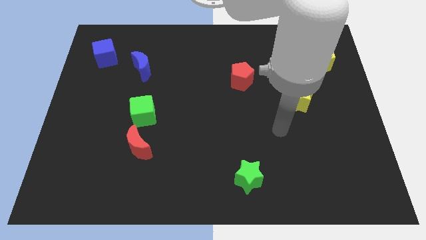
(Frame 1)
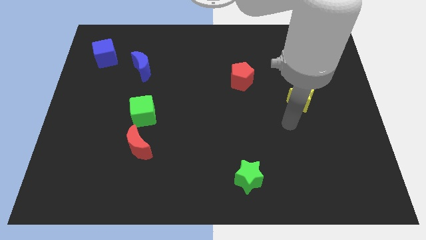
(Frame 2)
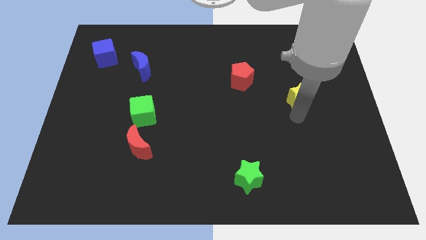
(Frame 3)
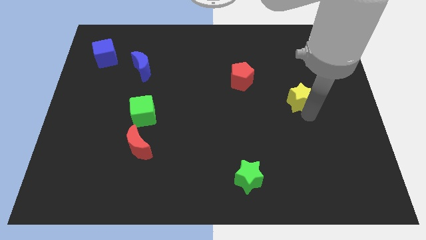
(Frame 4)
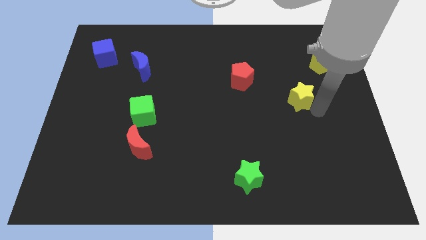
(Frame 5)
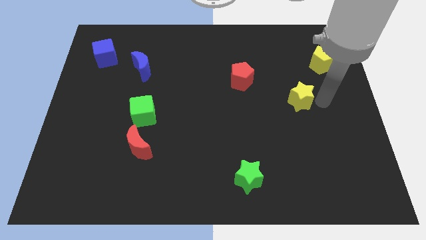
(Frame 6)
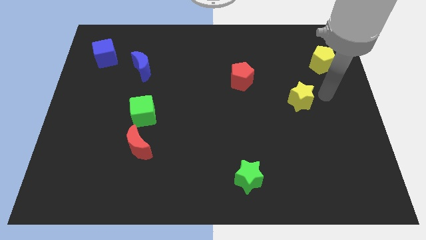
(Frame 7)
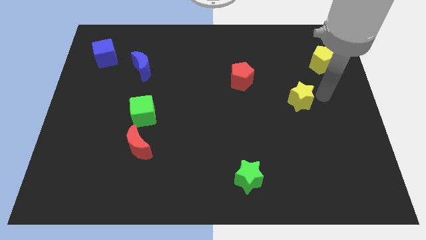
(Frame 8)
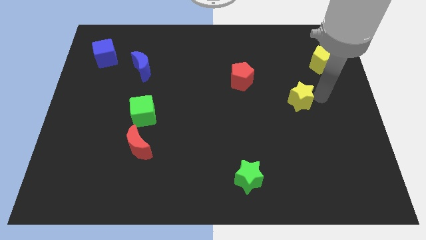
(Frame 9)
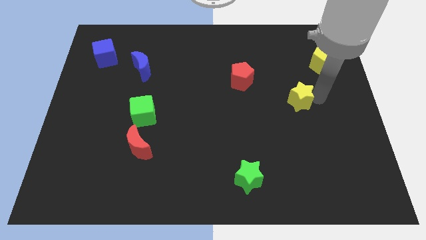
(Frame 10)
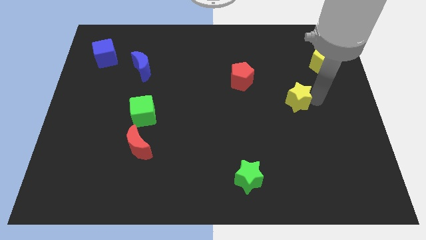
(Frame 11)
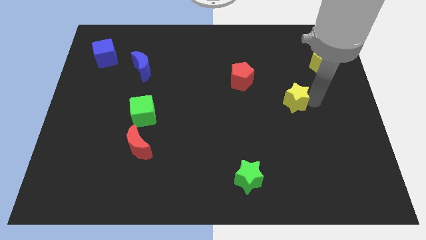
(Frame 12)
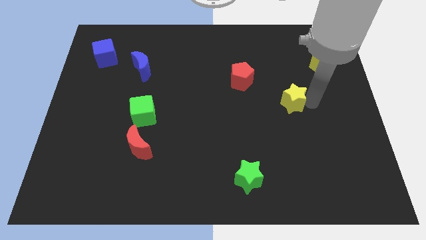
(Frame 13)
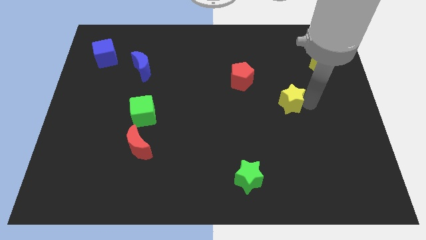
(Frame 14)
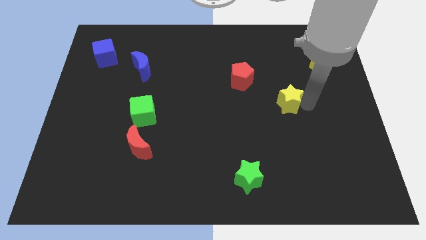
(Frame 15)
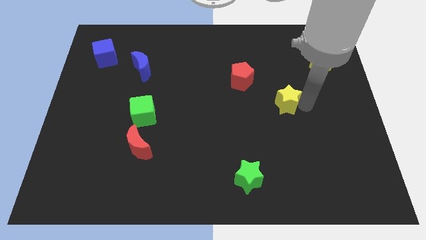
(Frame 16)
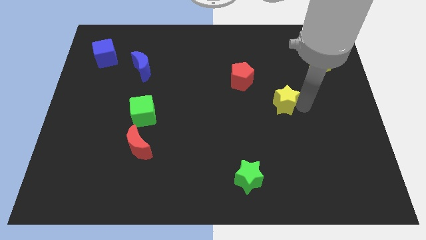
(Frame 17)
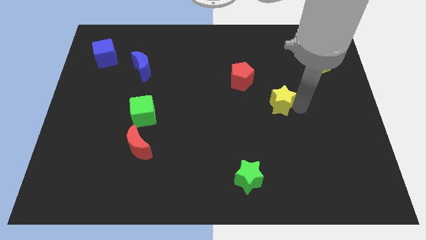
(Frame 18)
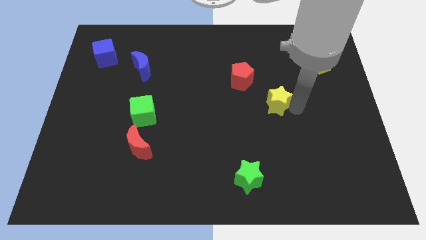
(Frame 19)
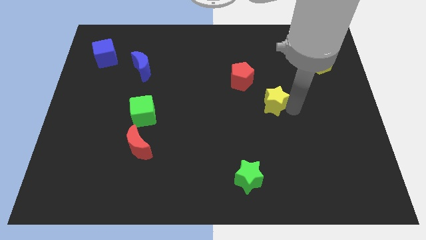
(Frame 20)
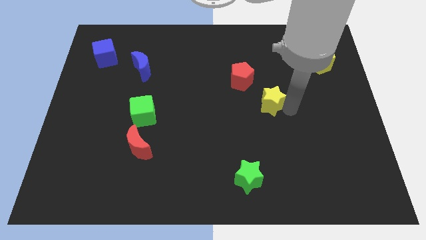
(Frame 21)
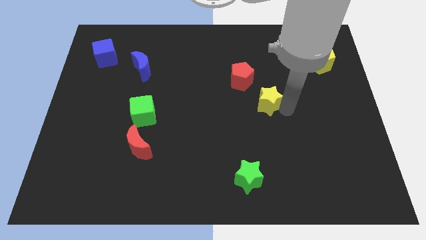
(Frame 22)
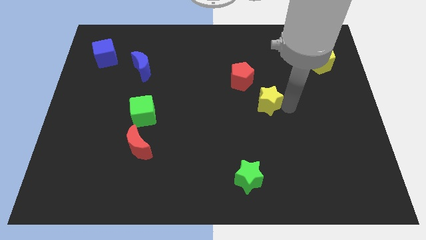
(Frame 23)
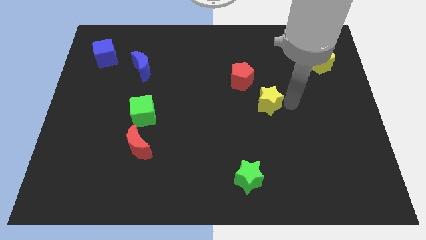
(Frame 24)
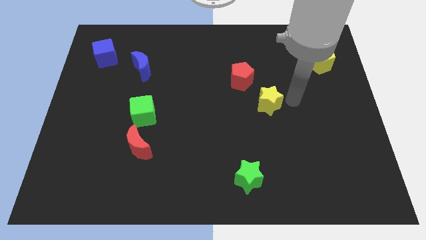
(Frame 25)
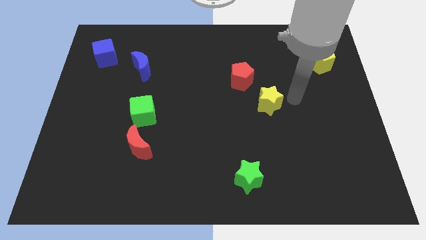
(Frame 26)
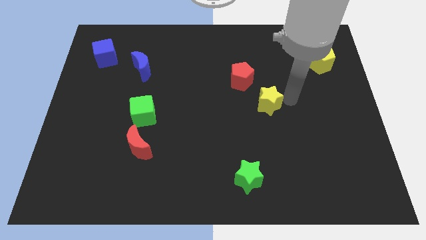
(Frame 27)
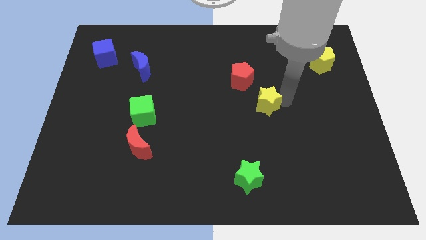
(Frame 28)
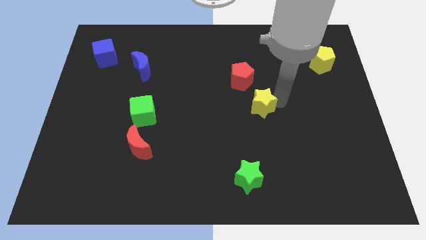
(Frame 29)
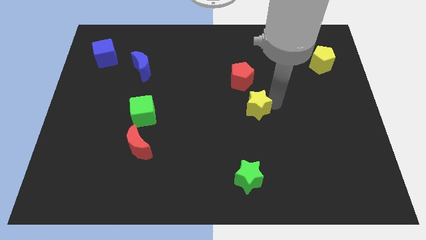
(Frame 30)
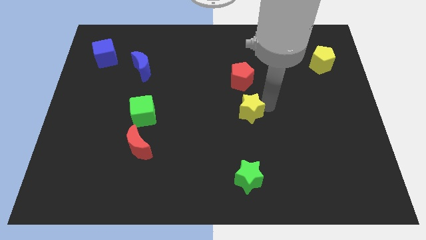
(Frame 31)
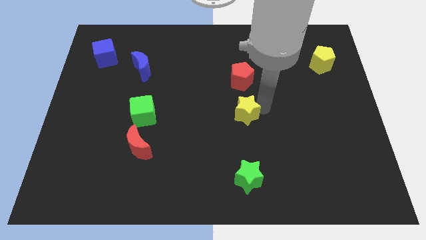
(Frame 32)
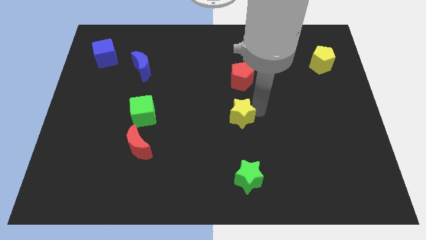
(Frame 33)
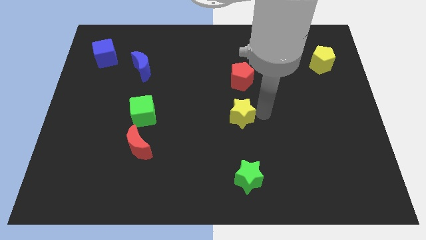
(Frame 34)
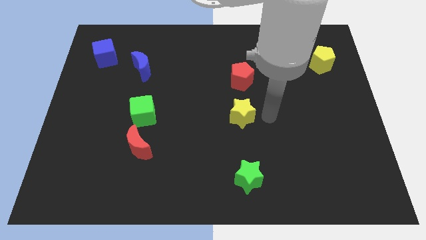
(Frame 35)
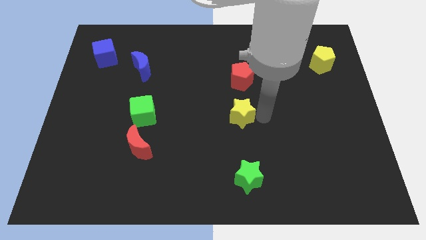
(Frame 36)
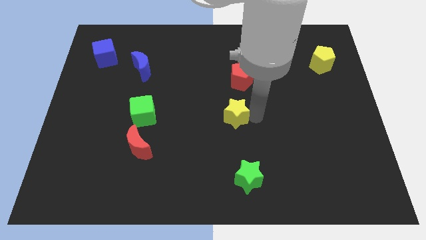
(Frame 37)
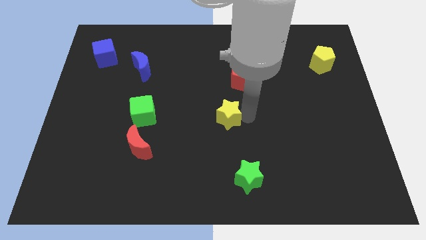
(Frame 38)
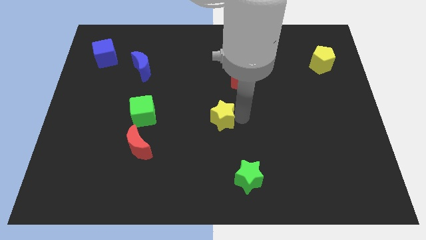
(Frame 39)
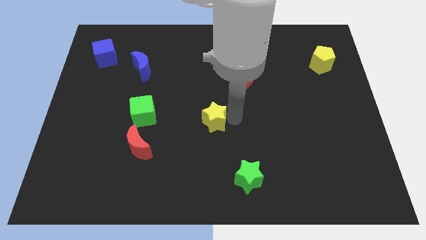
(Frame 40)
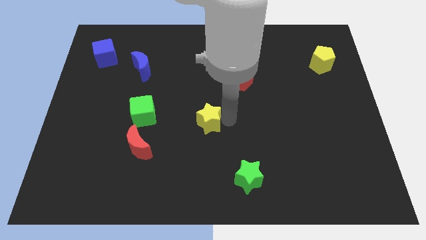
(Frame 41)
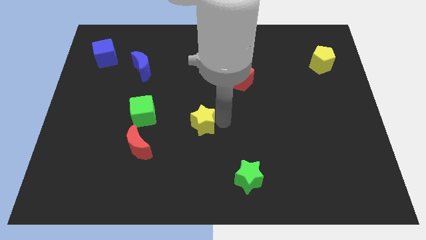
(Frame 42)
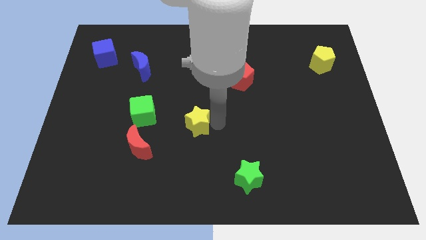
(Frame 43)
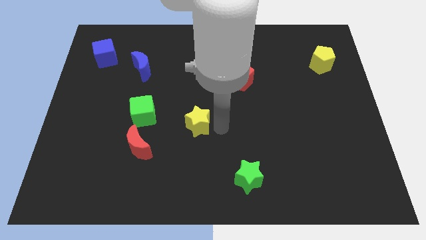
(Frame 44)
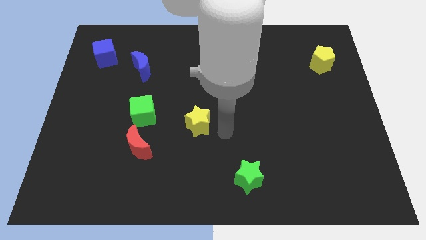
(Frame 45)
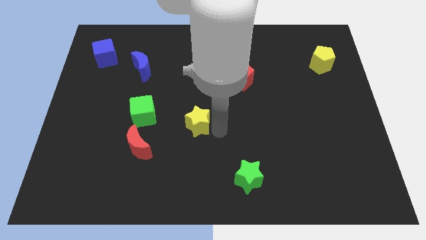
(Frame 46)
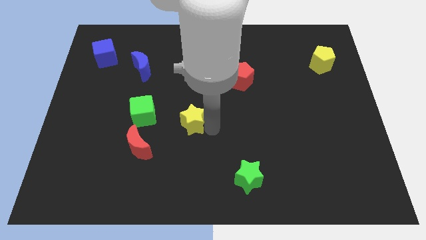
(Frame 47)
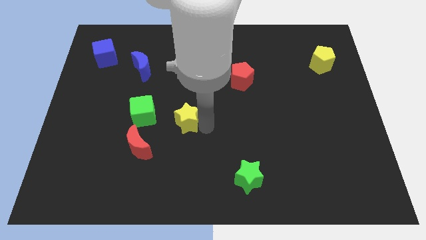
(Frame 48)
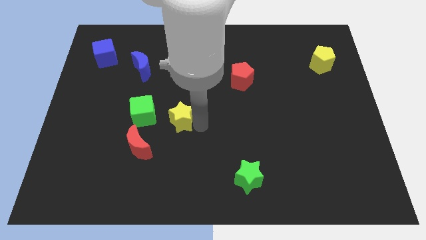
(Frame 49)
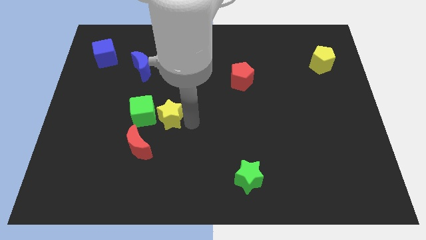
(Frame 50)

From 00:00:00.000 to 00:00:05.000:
move the yellow star to the green cube

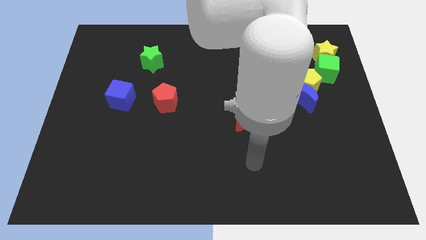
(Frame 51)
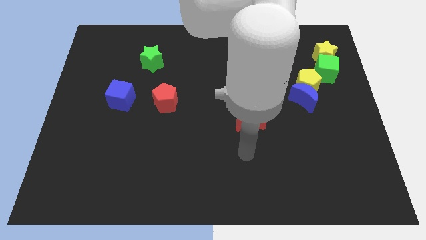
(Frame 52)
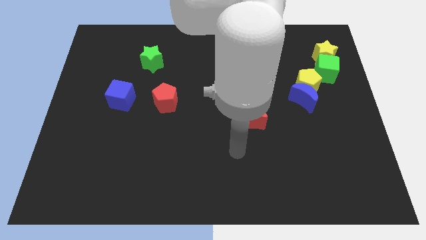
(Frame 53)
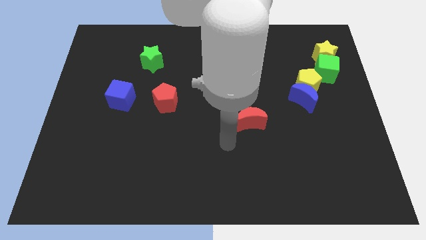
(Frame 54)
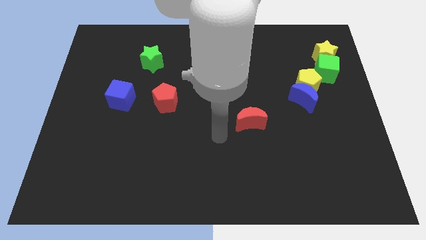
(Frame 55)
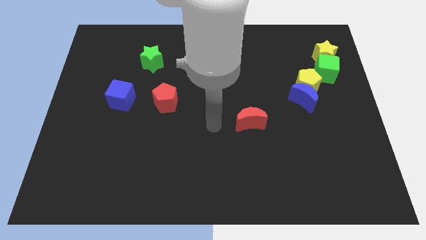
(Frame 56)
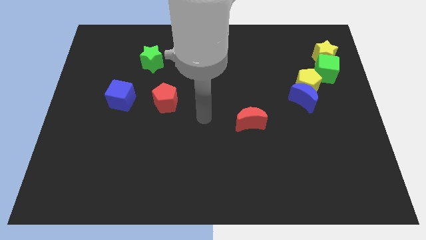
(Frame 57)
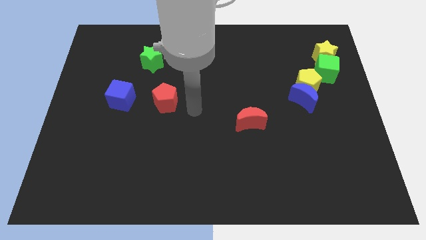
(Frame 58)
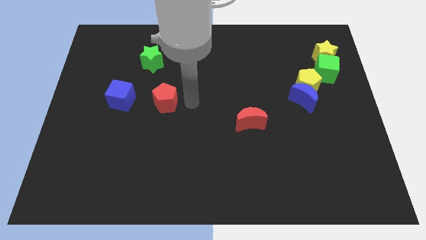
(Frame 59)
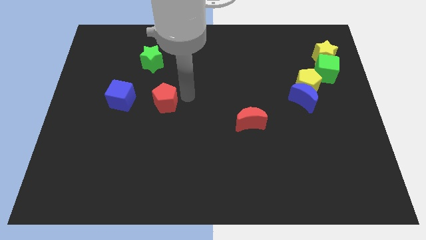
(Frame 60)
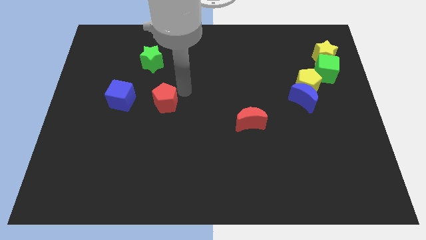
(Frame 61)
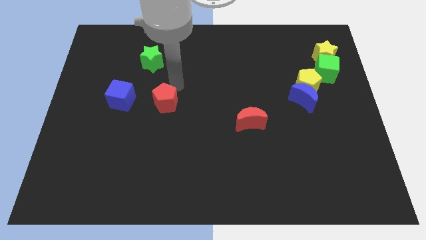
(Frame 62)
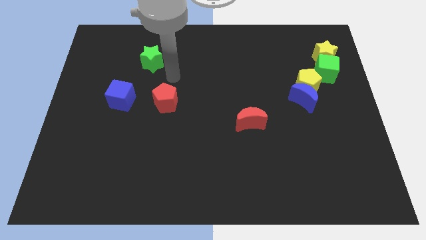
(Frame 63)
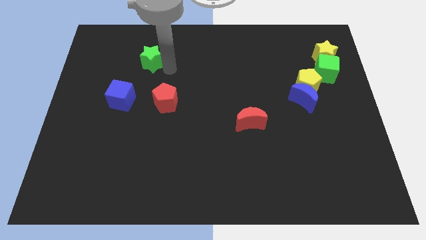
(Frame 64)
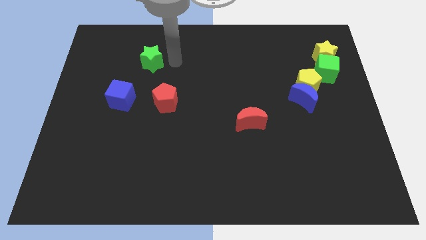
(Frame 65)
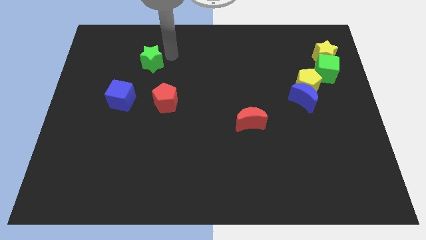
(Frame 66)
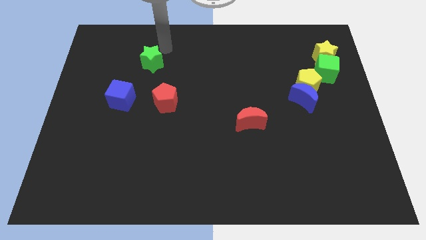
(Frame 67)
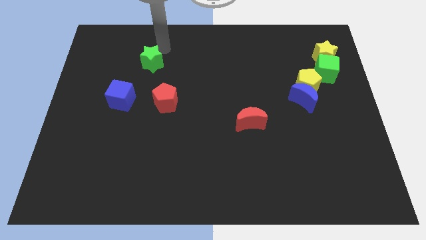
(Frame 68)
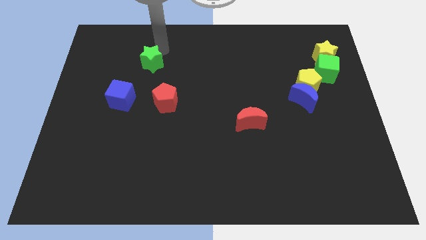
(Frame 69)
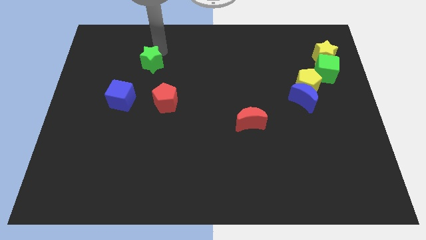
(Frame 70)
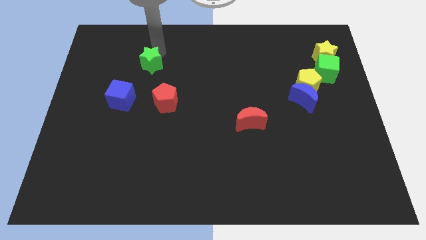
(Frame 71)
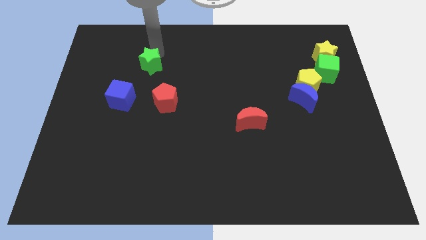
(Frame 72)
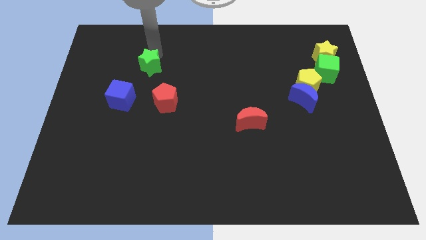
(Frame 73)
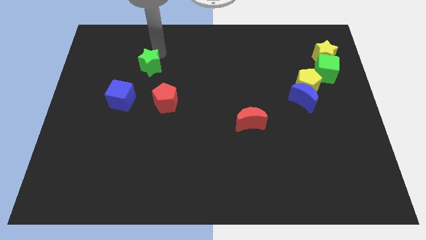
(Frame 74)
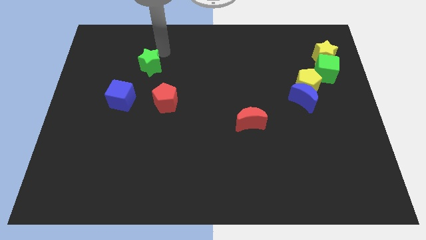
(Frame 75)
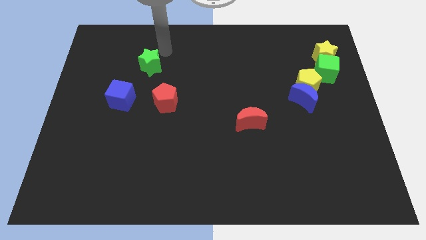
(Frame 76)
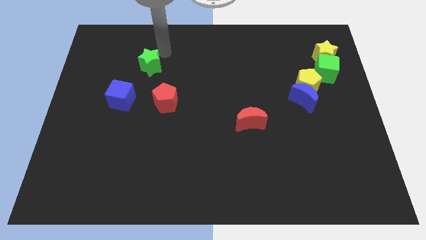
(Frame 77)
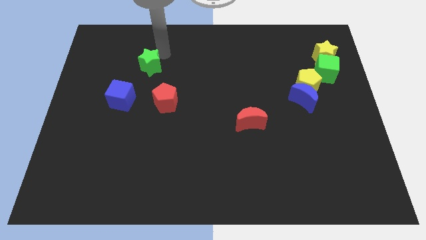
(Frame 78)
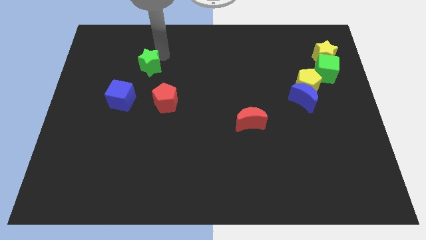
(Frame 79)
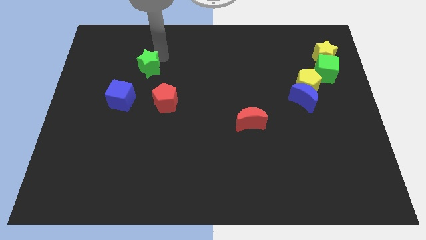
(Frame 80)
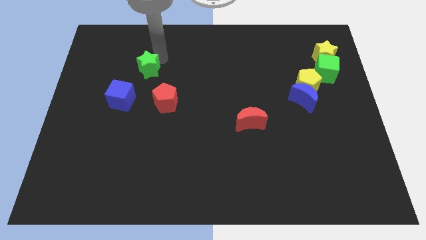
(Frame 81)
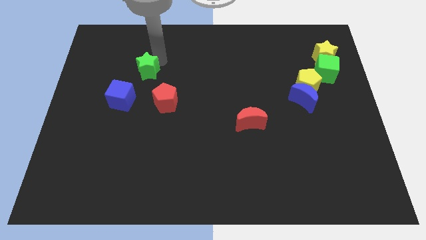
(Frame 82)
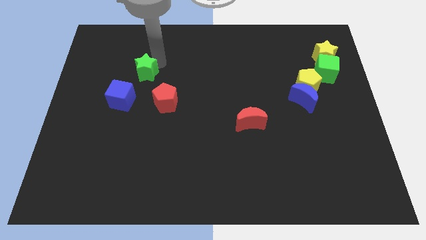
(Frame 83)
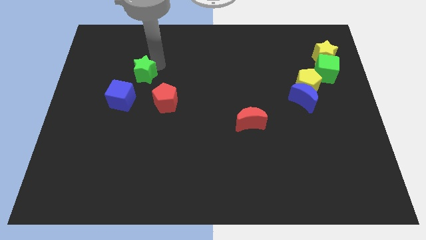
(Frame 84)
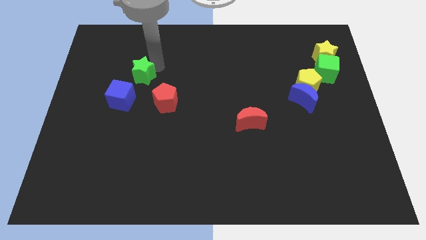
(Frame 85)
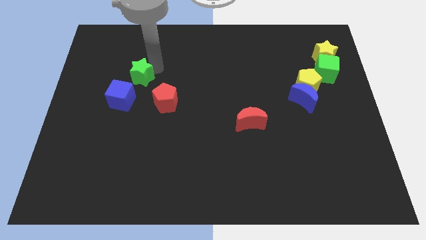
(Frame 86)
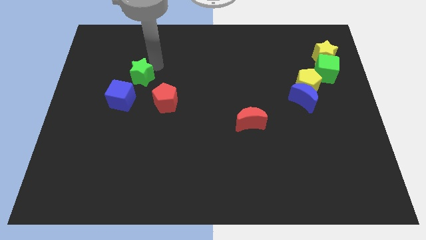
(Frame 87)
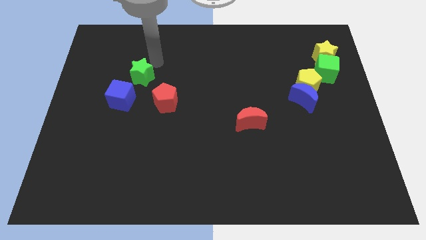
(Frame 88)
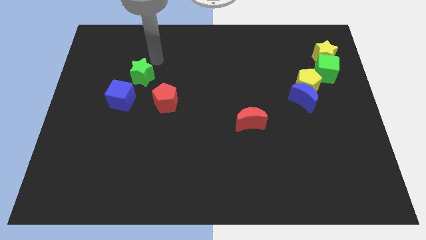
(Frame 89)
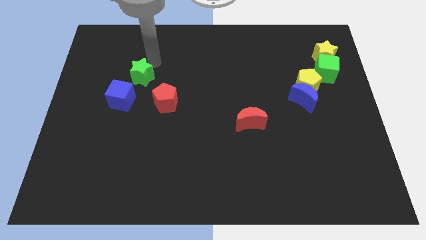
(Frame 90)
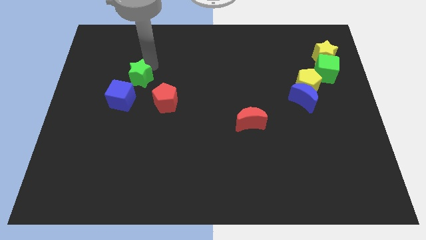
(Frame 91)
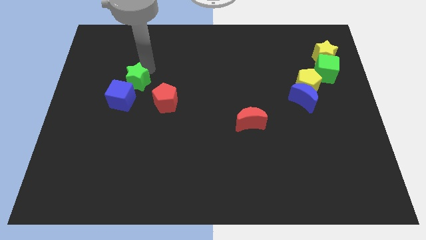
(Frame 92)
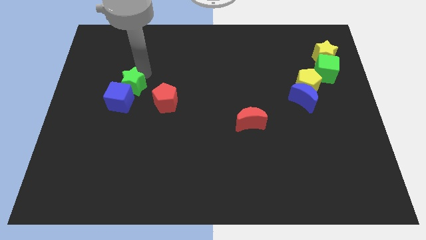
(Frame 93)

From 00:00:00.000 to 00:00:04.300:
move the green star towards the blue cube
